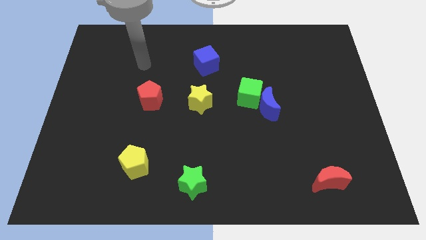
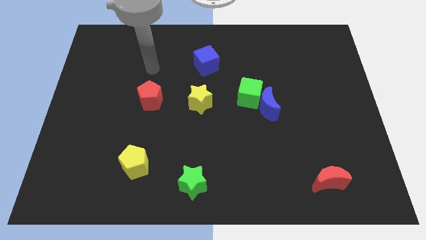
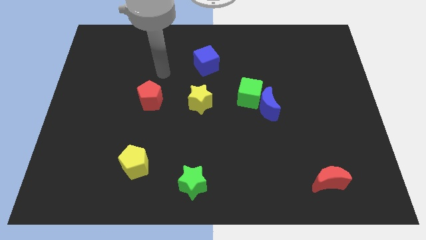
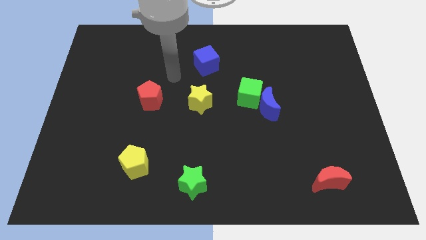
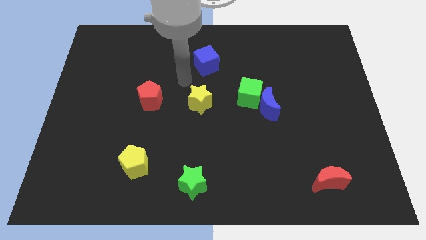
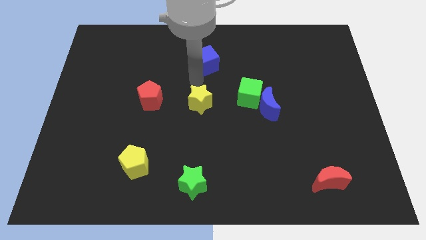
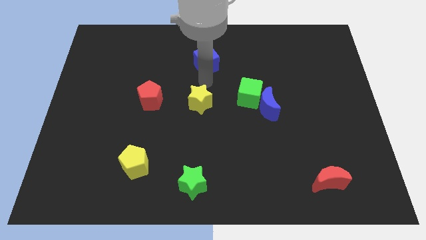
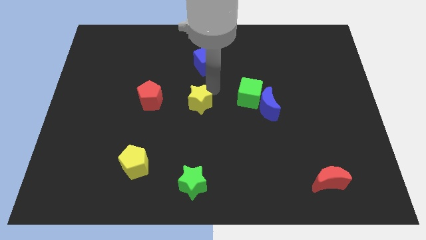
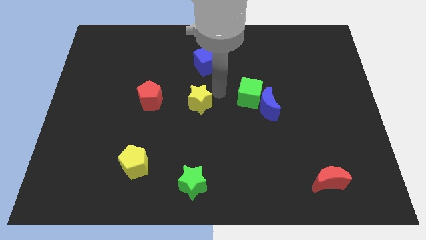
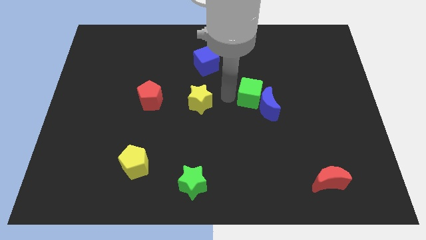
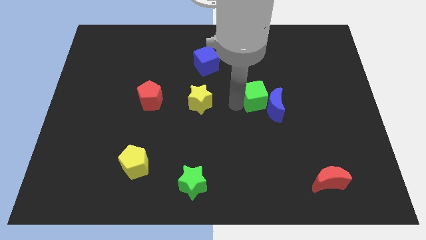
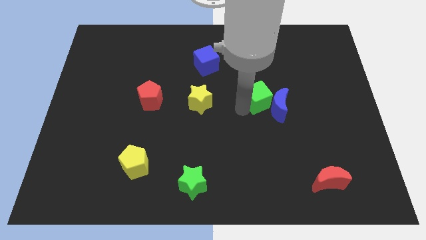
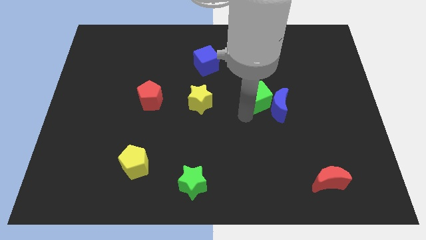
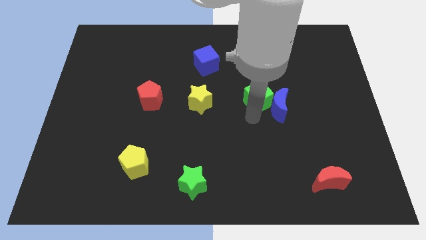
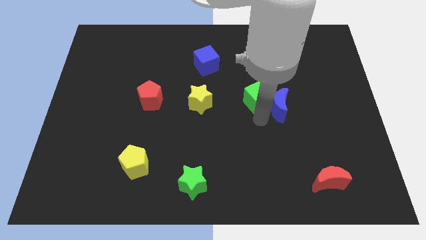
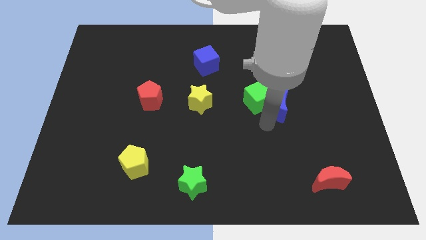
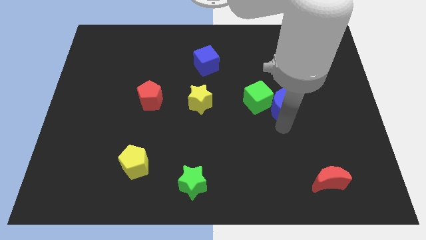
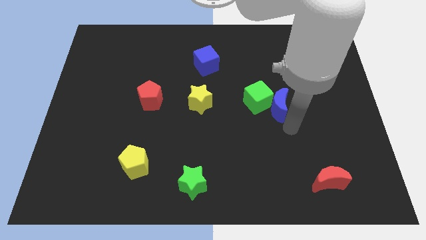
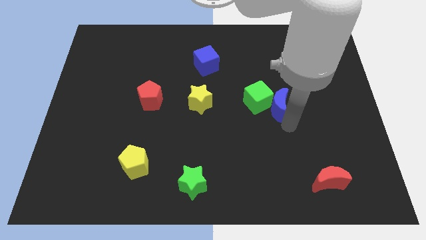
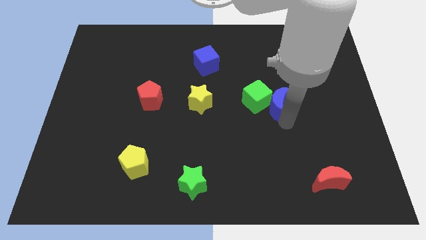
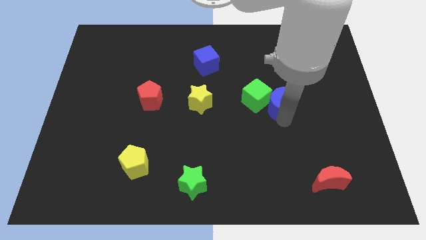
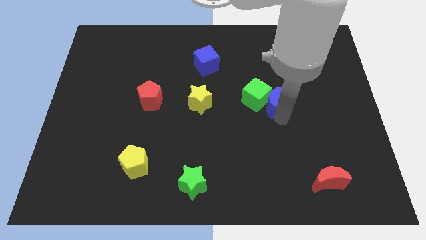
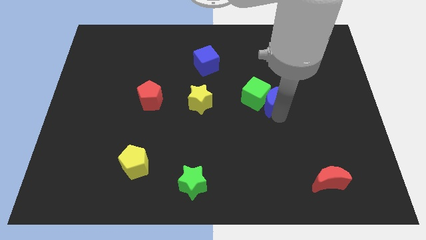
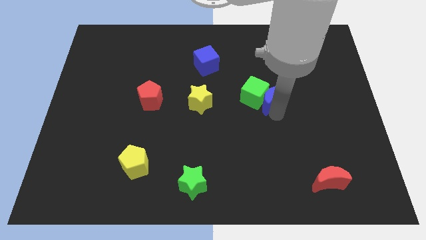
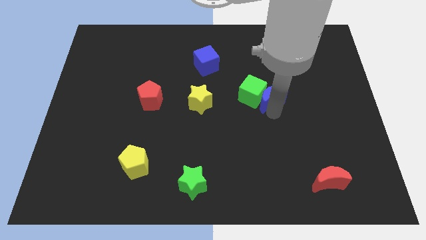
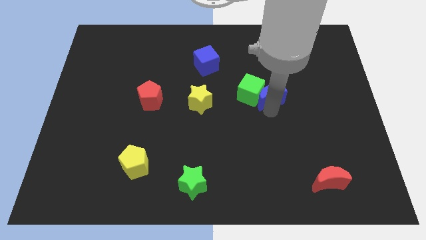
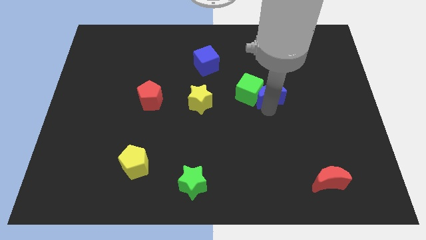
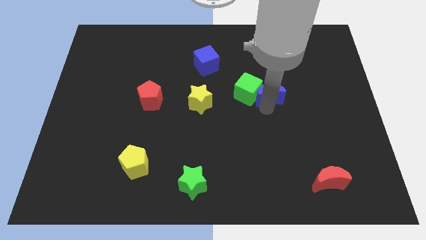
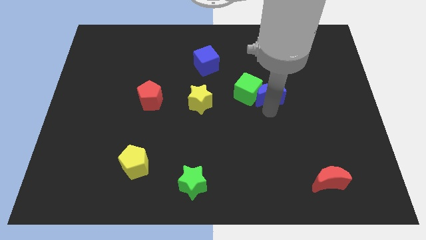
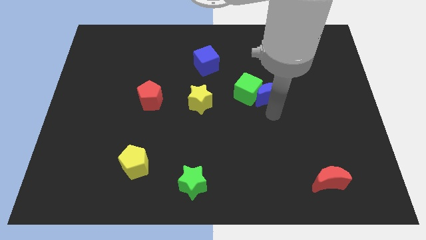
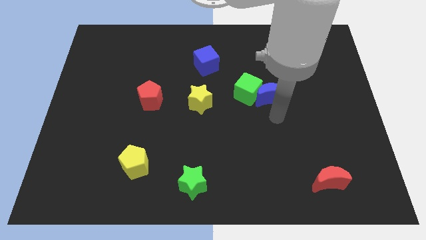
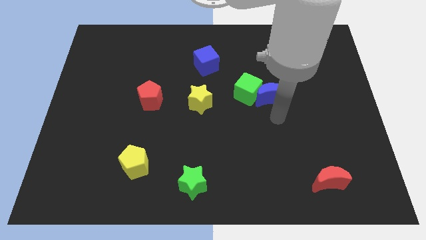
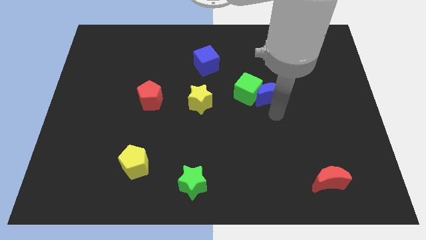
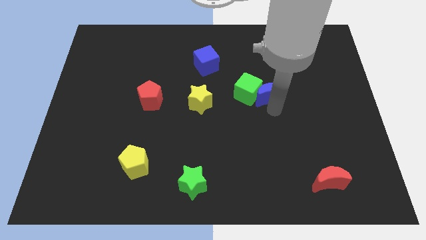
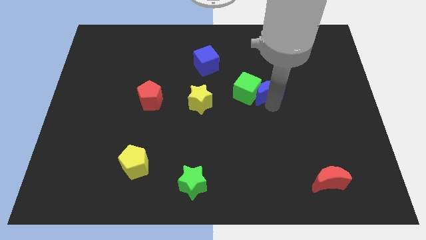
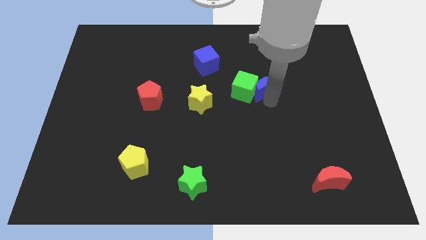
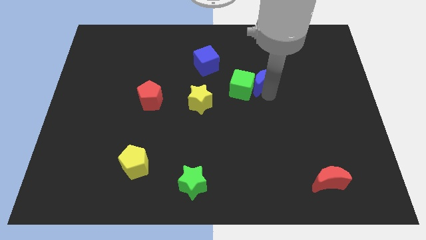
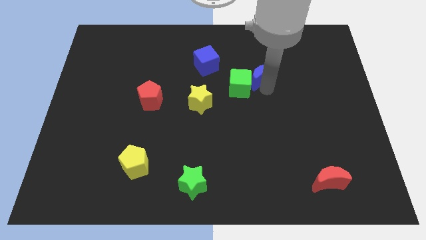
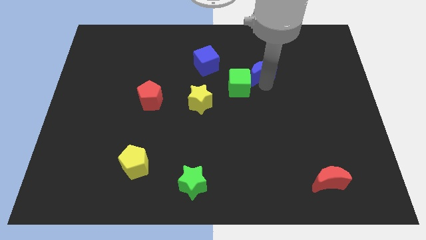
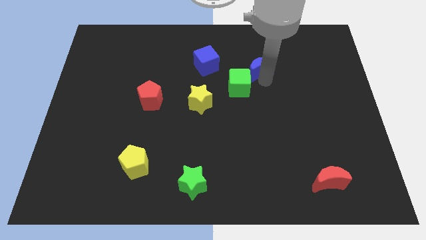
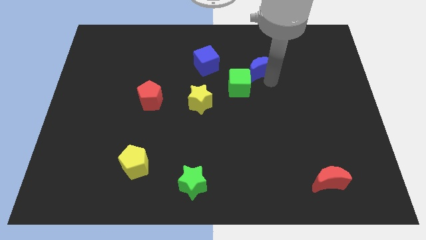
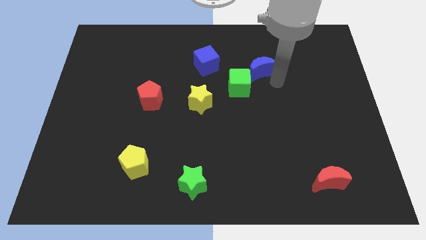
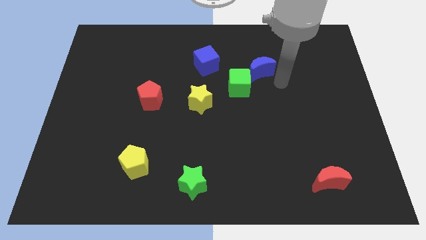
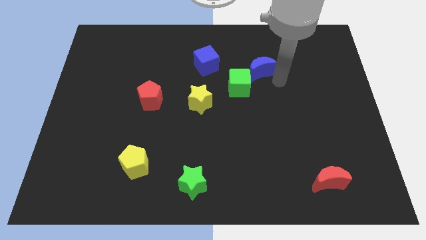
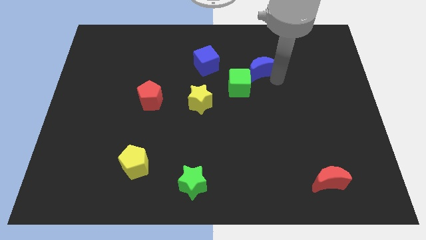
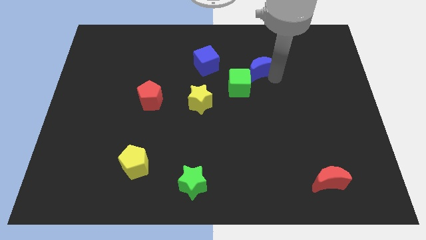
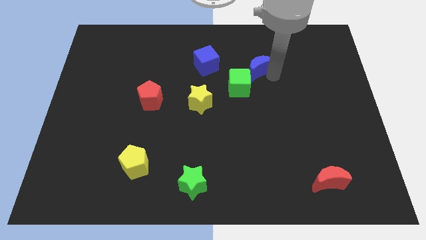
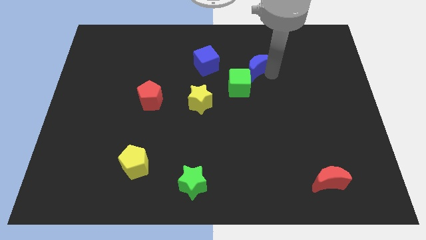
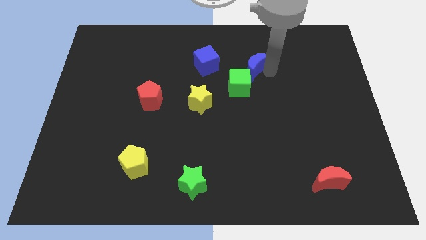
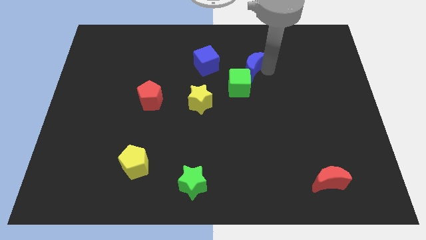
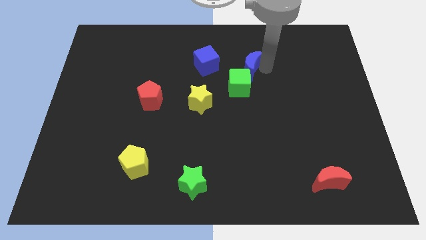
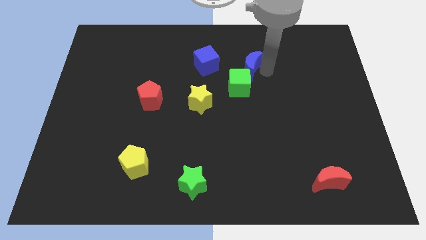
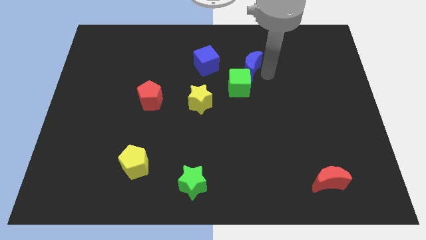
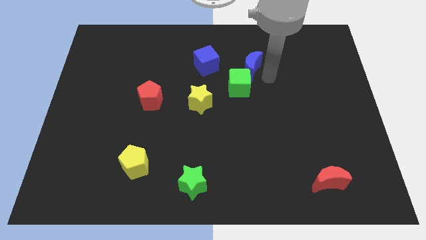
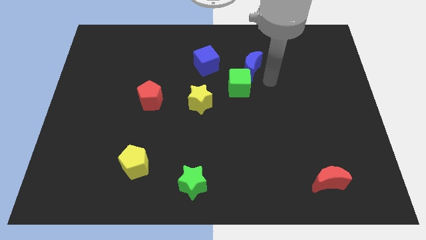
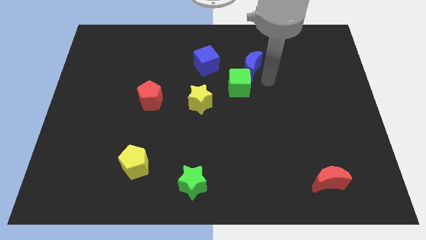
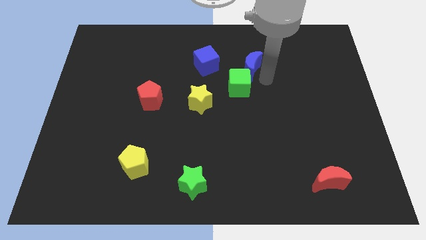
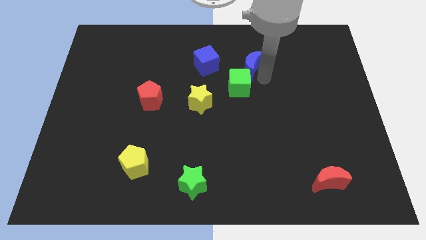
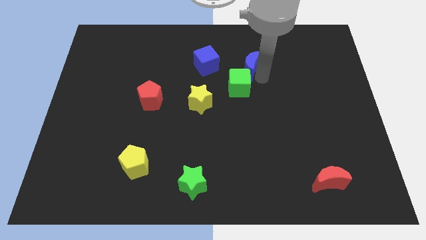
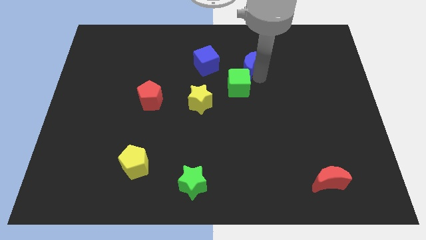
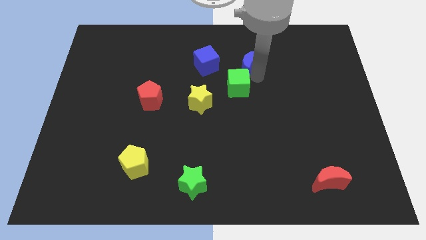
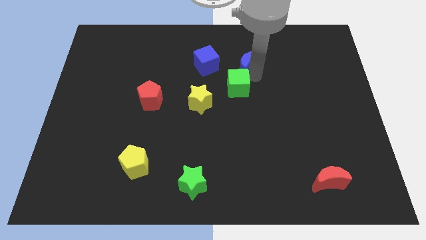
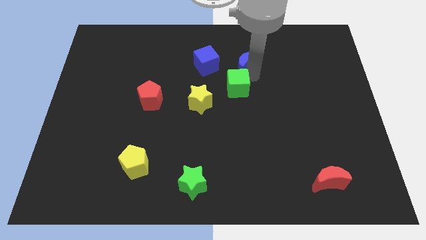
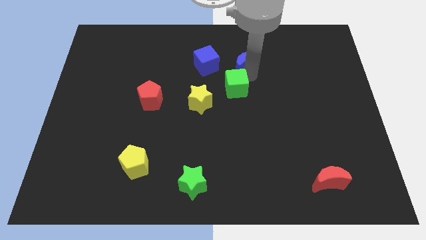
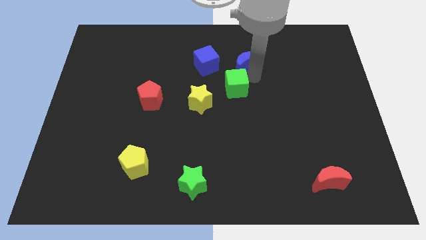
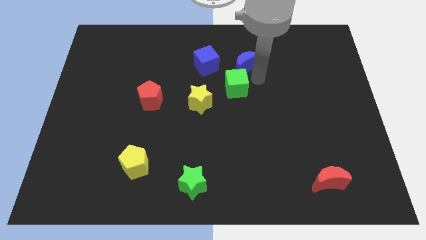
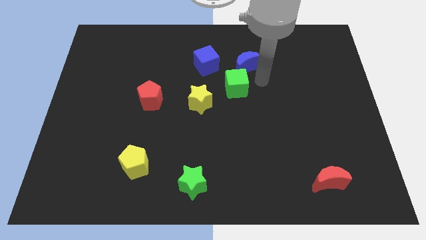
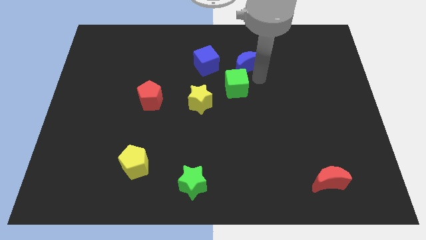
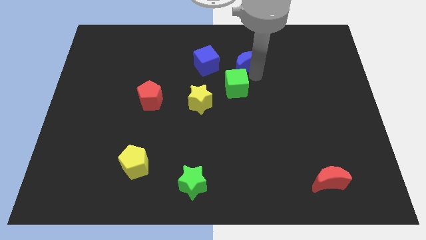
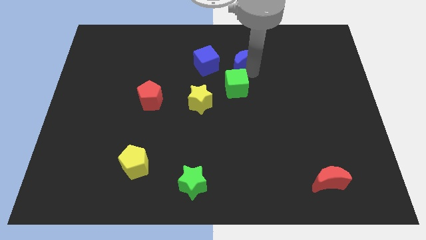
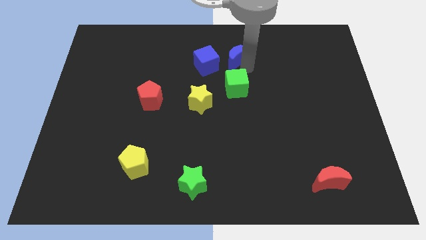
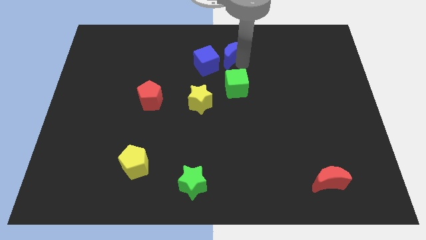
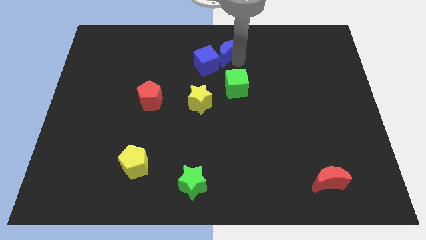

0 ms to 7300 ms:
push the blue moon to the top side

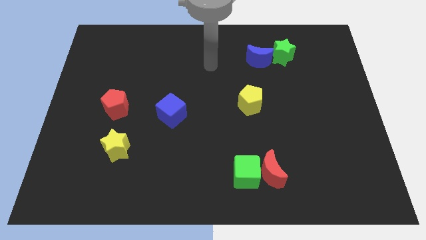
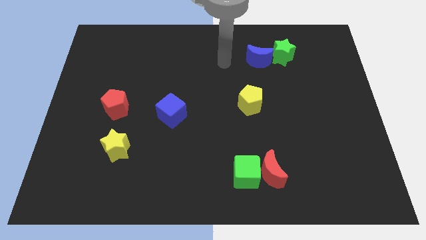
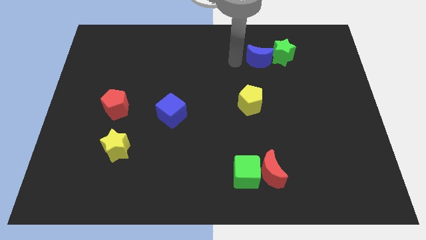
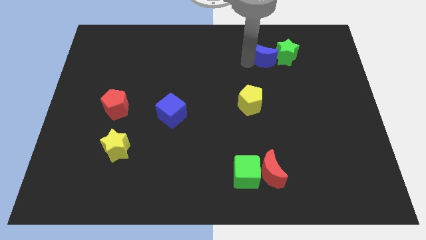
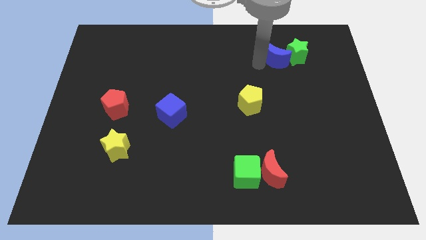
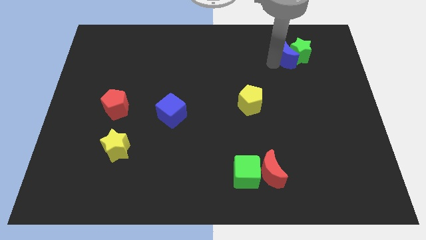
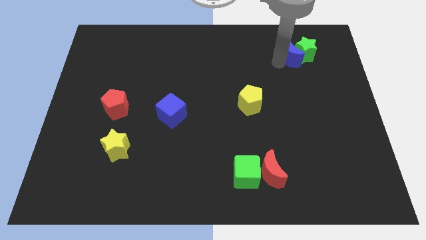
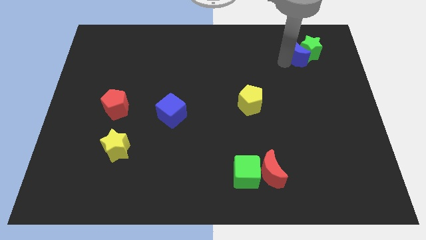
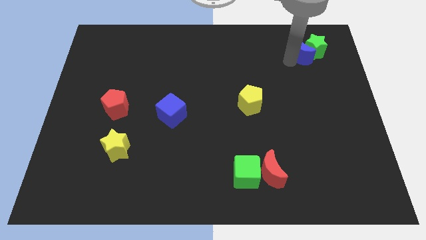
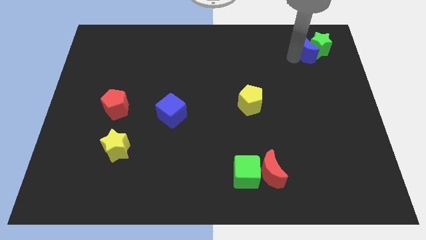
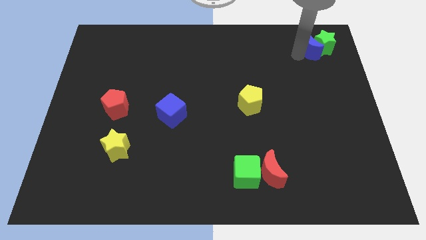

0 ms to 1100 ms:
put the green star to the upper right corner
